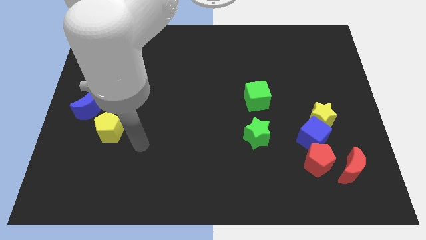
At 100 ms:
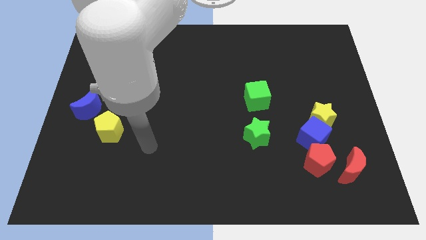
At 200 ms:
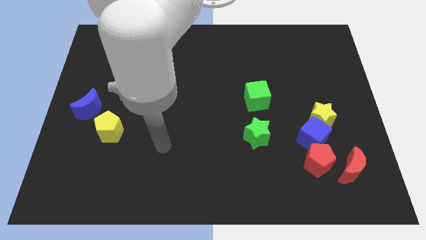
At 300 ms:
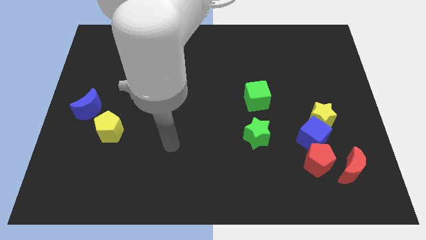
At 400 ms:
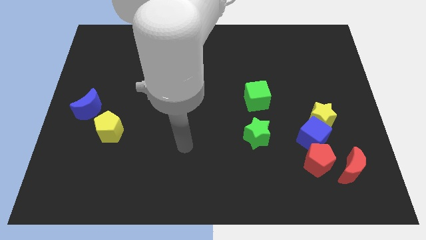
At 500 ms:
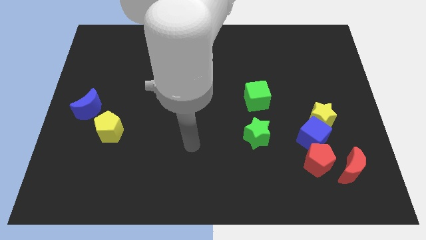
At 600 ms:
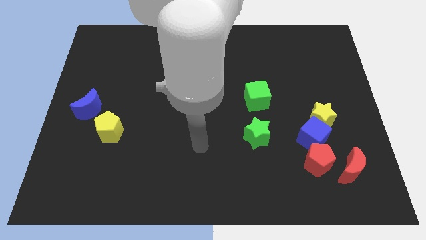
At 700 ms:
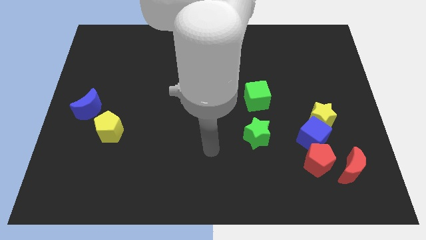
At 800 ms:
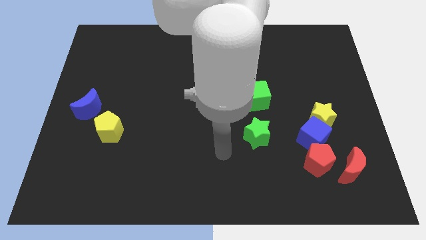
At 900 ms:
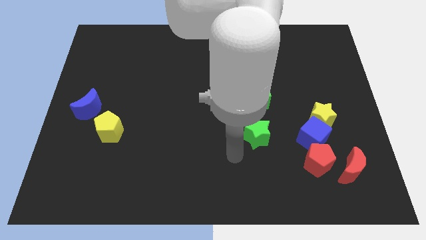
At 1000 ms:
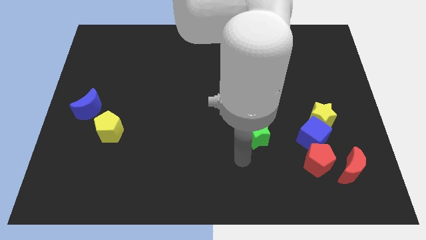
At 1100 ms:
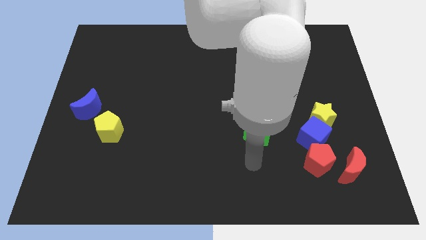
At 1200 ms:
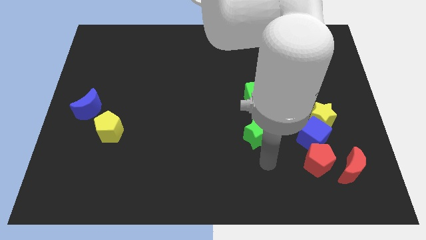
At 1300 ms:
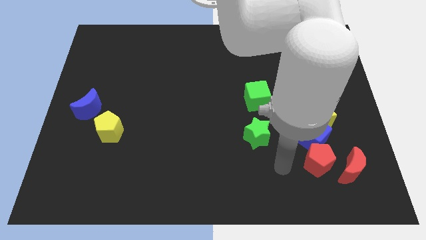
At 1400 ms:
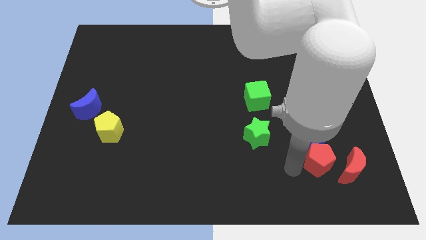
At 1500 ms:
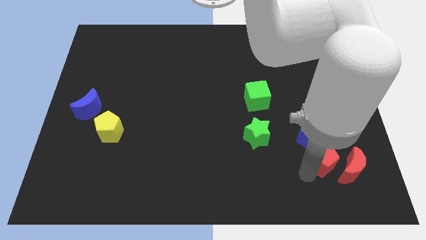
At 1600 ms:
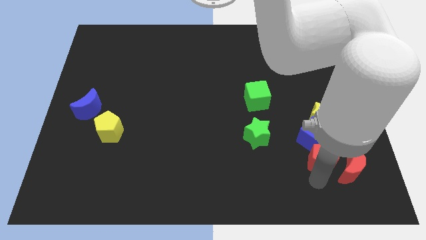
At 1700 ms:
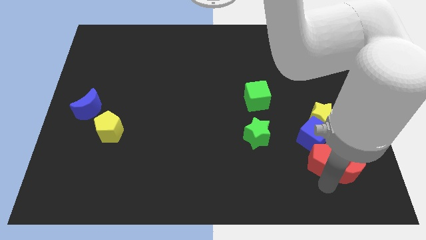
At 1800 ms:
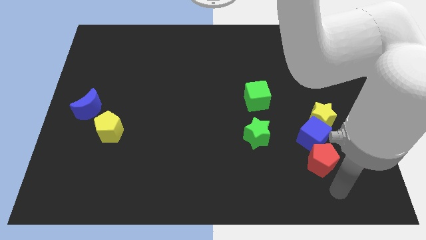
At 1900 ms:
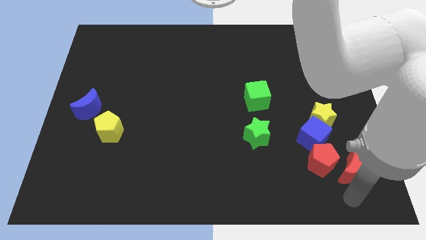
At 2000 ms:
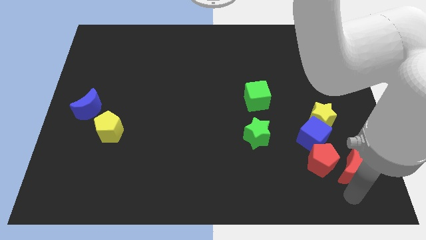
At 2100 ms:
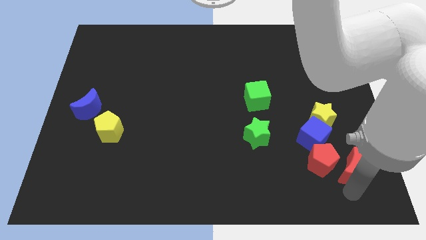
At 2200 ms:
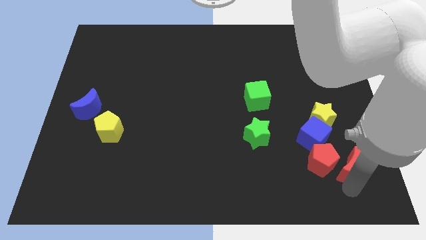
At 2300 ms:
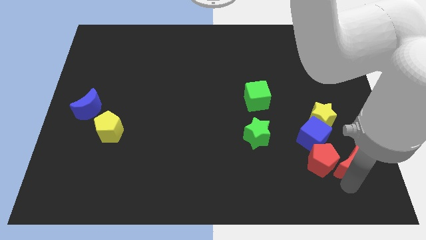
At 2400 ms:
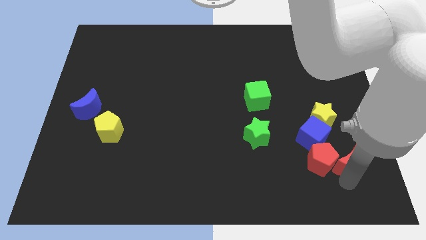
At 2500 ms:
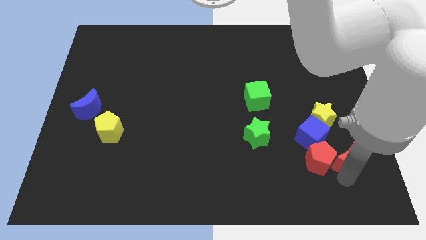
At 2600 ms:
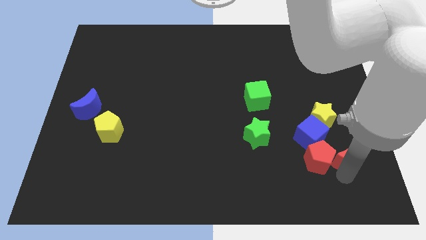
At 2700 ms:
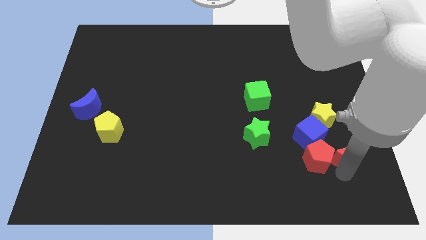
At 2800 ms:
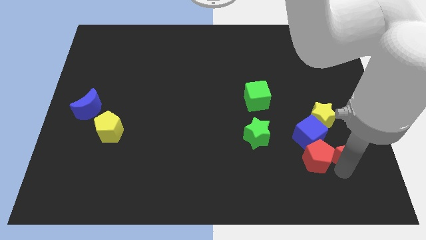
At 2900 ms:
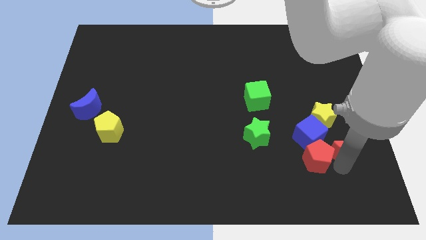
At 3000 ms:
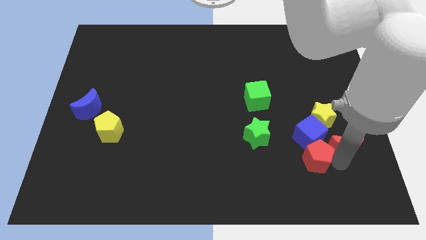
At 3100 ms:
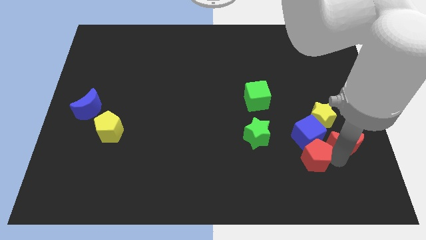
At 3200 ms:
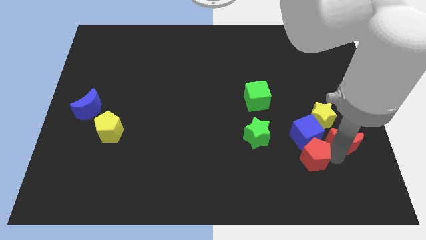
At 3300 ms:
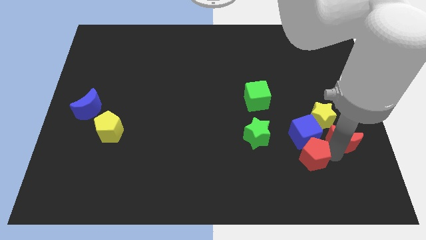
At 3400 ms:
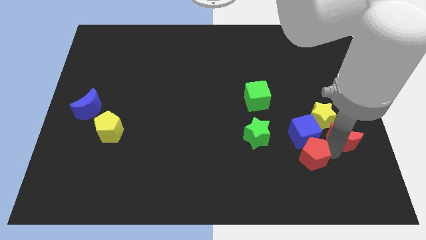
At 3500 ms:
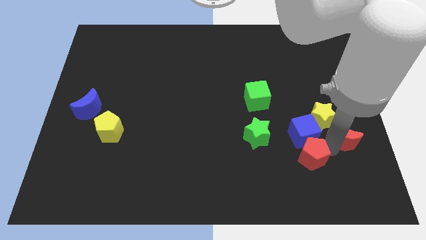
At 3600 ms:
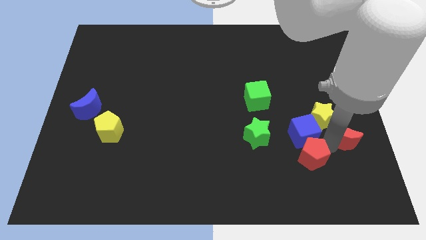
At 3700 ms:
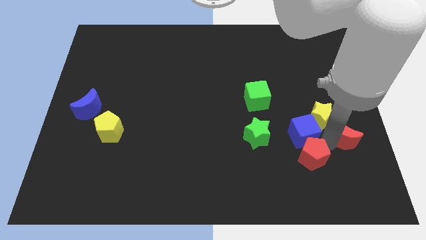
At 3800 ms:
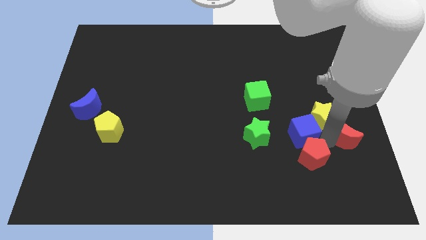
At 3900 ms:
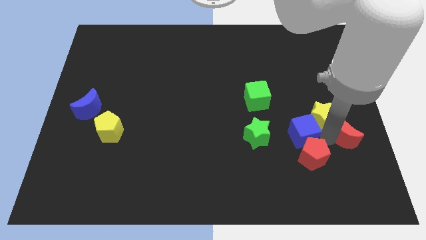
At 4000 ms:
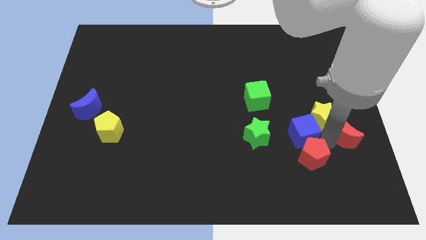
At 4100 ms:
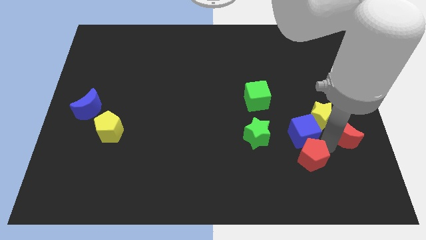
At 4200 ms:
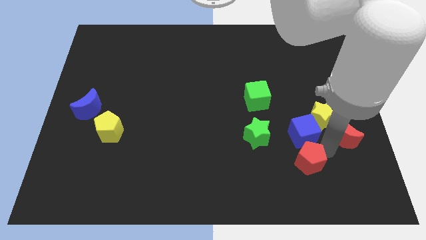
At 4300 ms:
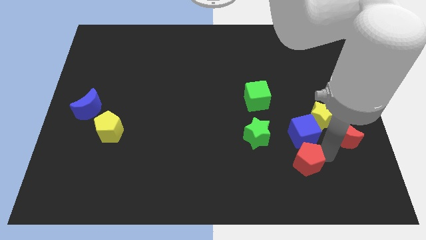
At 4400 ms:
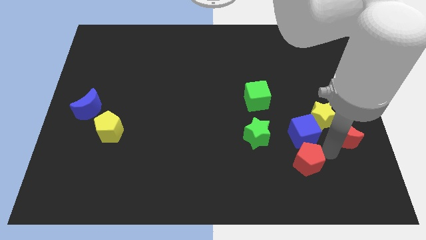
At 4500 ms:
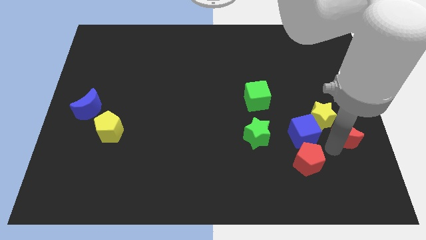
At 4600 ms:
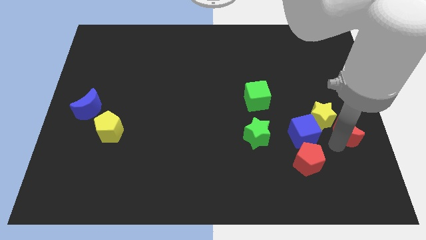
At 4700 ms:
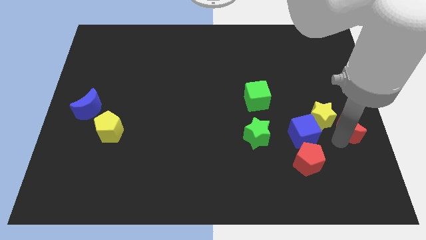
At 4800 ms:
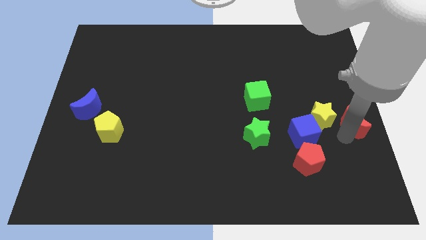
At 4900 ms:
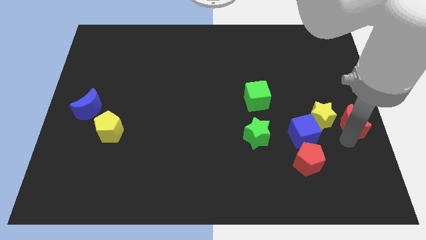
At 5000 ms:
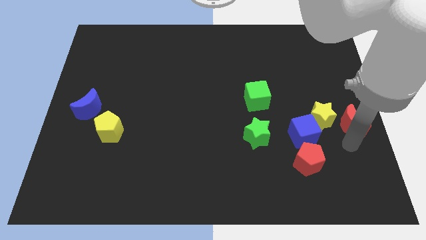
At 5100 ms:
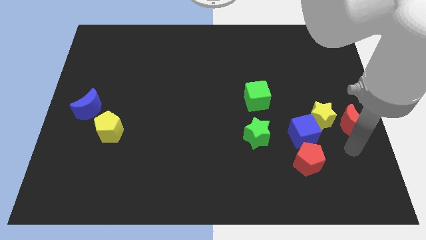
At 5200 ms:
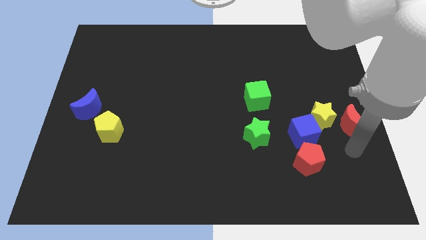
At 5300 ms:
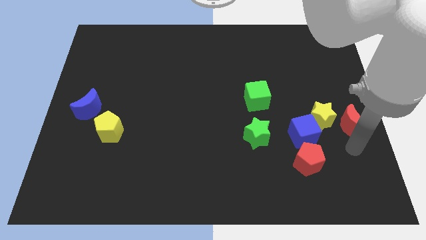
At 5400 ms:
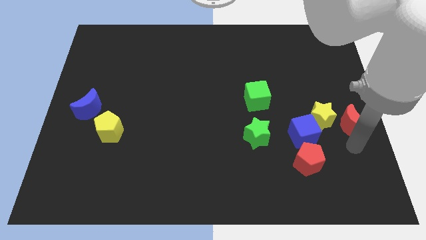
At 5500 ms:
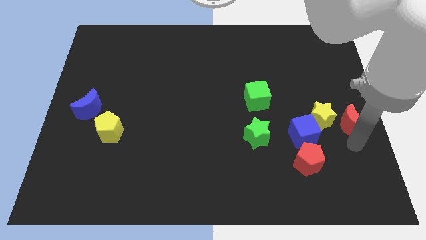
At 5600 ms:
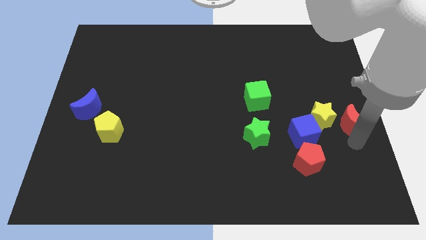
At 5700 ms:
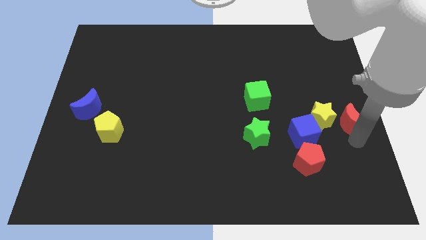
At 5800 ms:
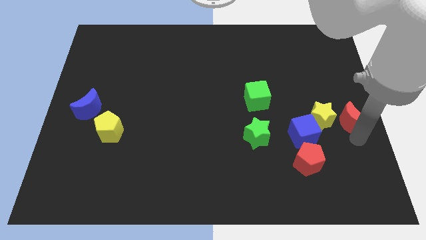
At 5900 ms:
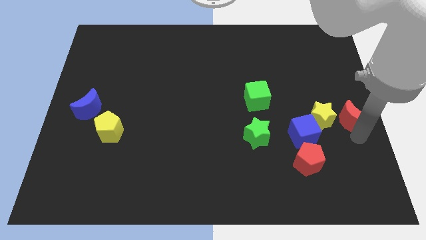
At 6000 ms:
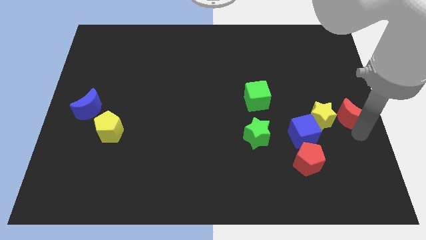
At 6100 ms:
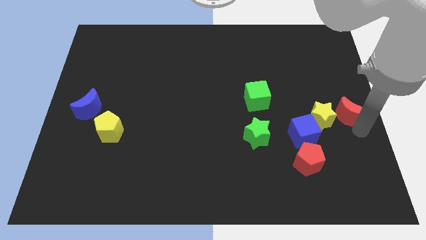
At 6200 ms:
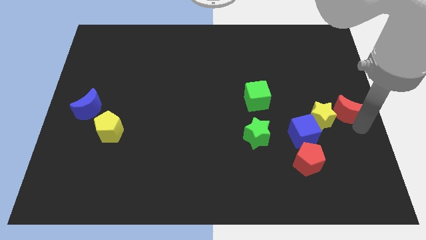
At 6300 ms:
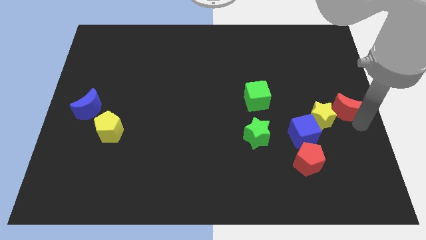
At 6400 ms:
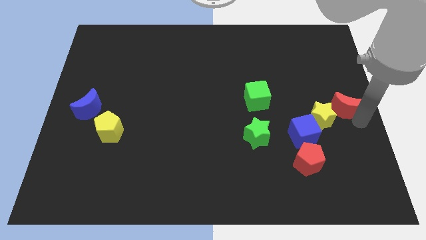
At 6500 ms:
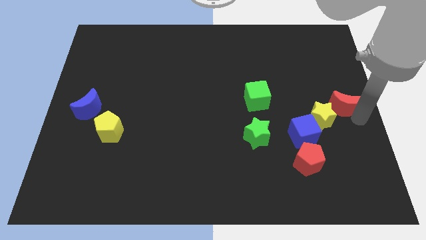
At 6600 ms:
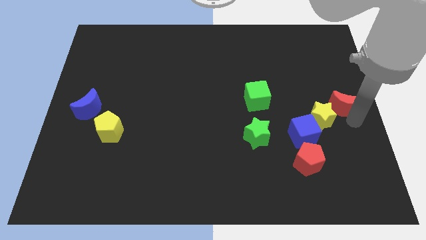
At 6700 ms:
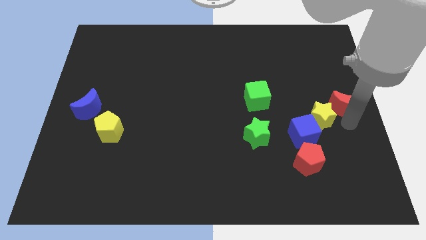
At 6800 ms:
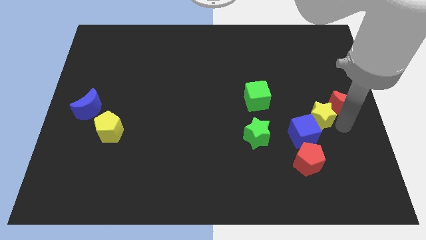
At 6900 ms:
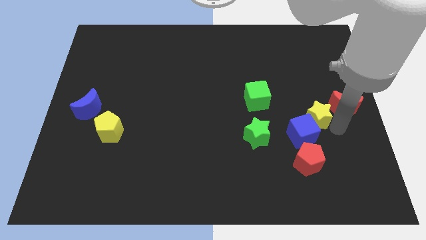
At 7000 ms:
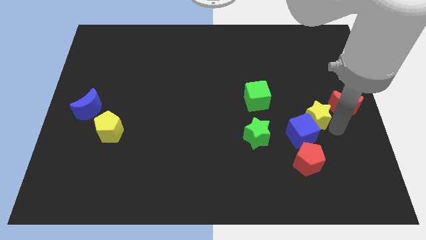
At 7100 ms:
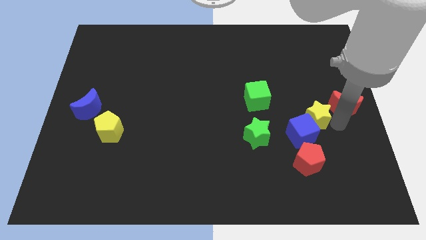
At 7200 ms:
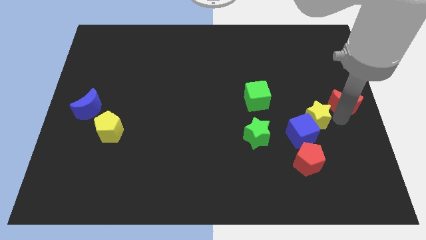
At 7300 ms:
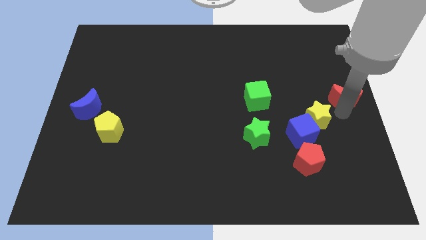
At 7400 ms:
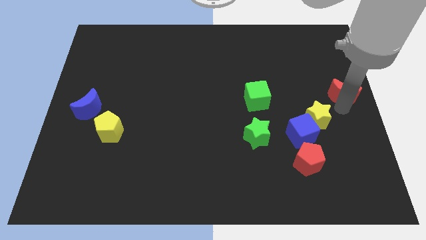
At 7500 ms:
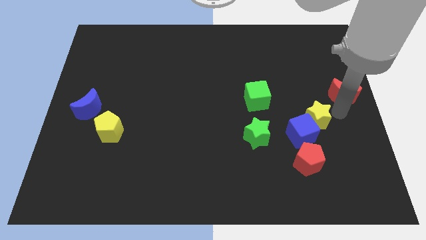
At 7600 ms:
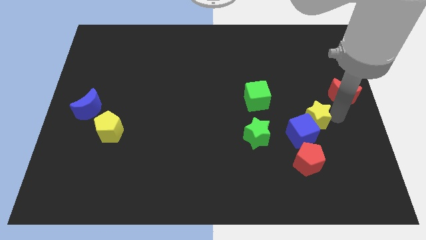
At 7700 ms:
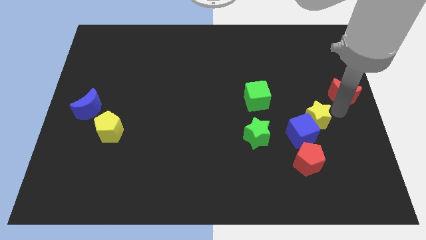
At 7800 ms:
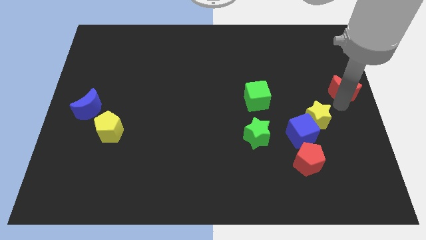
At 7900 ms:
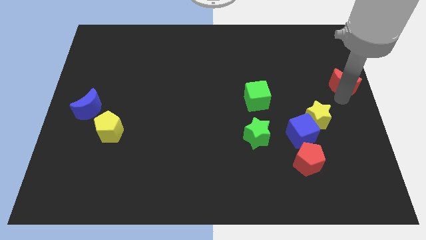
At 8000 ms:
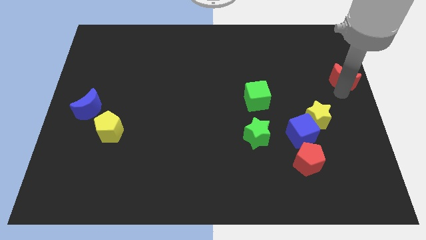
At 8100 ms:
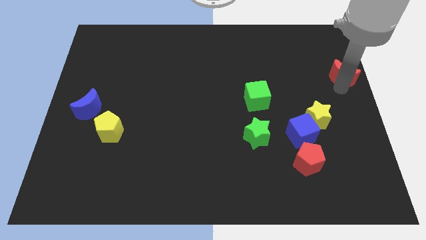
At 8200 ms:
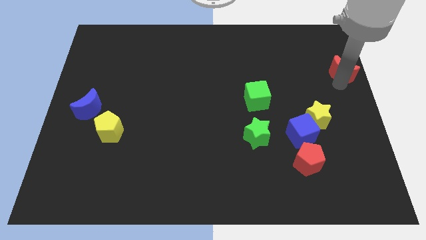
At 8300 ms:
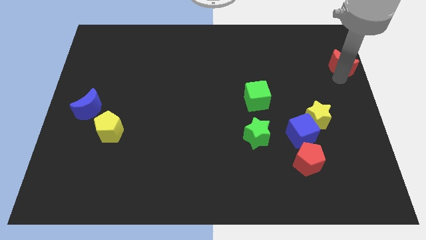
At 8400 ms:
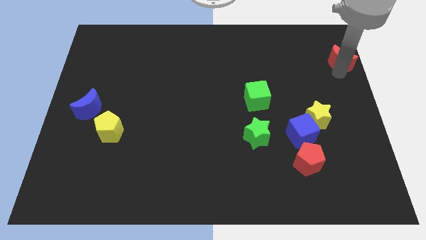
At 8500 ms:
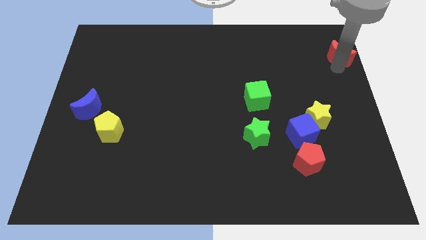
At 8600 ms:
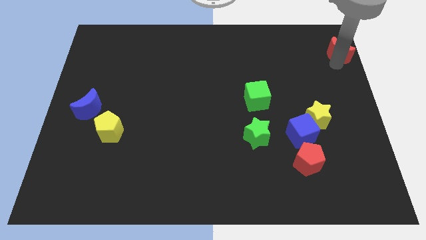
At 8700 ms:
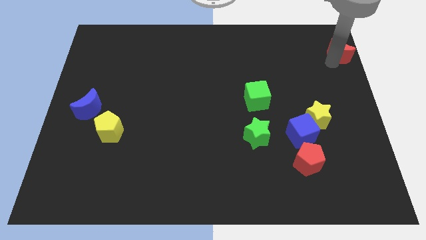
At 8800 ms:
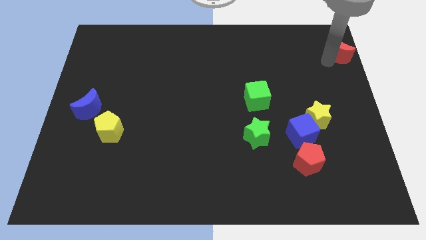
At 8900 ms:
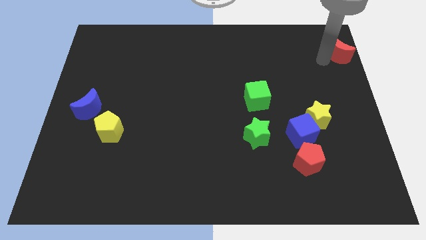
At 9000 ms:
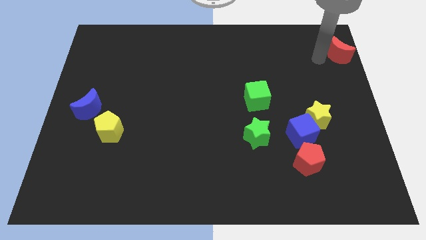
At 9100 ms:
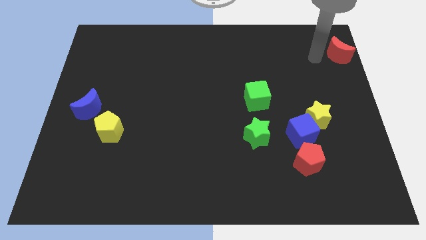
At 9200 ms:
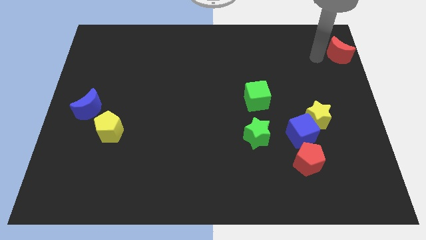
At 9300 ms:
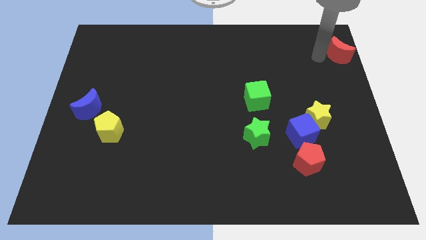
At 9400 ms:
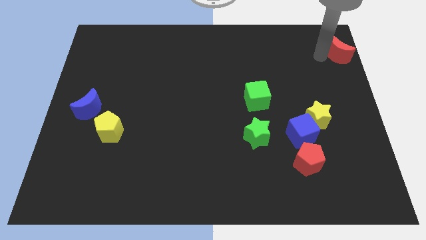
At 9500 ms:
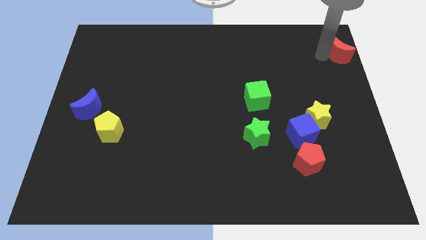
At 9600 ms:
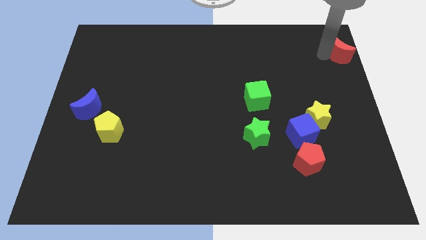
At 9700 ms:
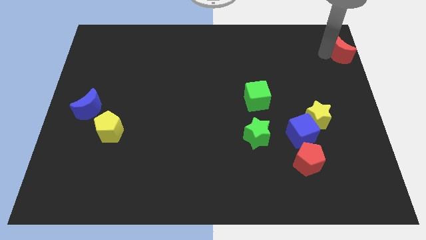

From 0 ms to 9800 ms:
slide the red moon to the top right
